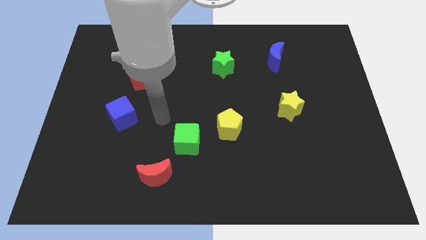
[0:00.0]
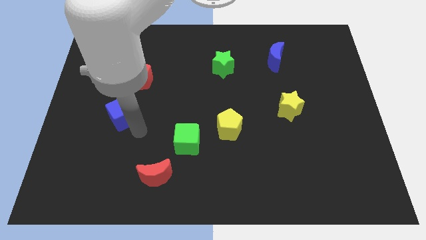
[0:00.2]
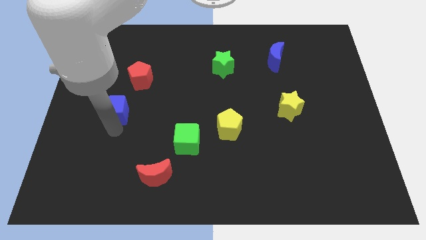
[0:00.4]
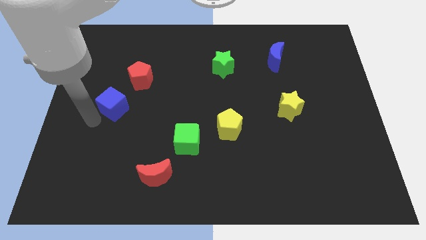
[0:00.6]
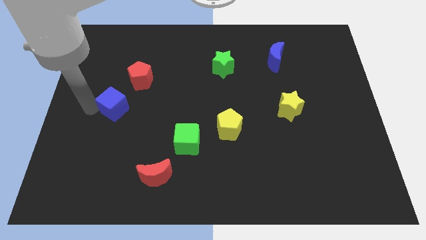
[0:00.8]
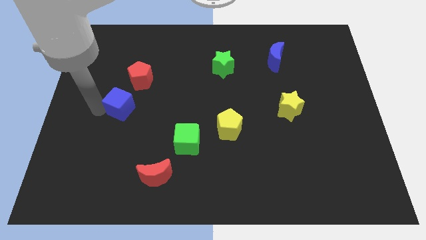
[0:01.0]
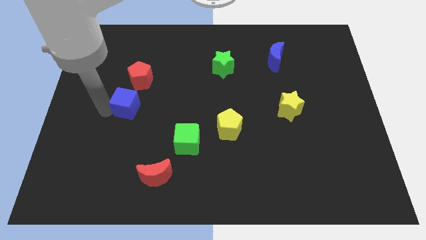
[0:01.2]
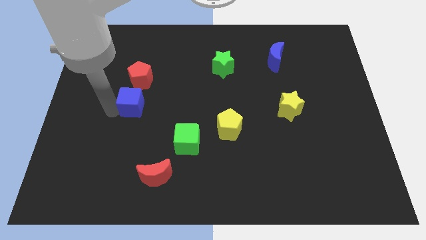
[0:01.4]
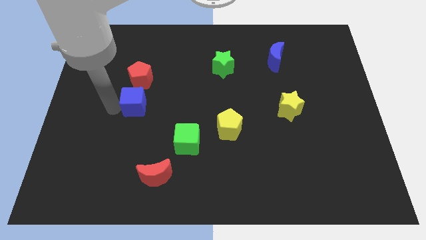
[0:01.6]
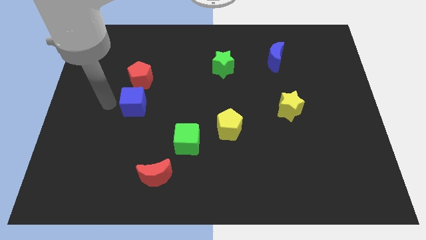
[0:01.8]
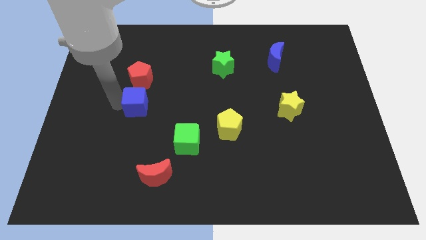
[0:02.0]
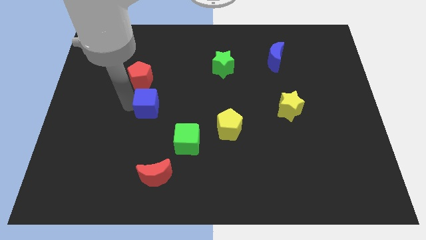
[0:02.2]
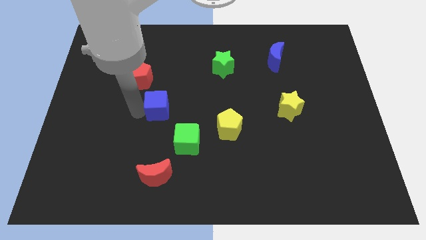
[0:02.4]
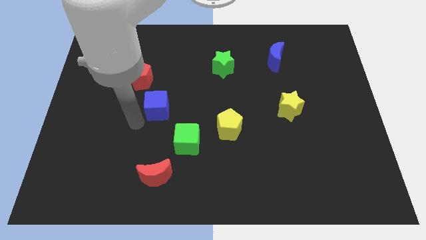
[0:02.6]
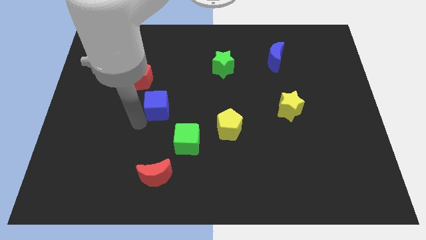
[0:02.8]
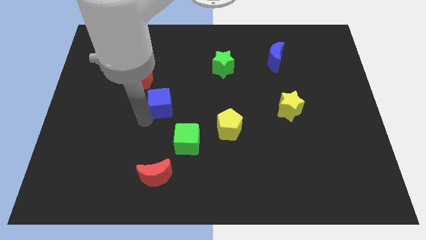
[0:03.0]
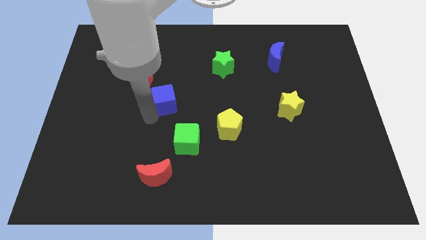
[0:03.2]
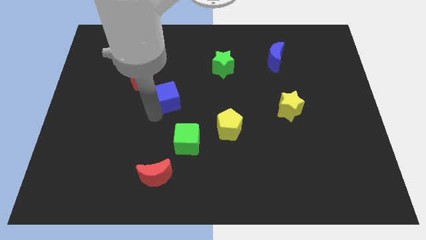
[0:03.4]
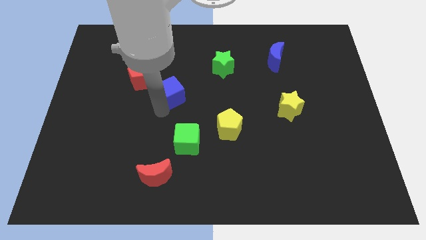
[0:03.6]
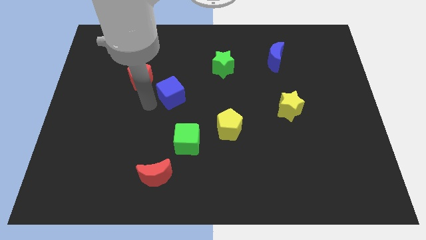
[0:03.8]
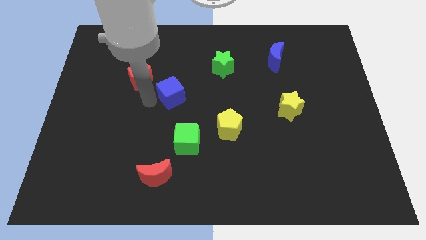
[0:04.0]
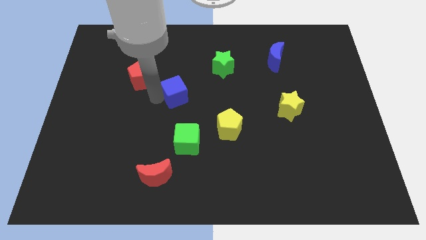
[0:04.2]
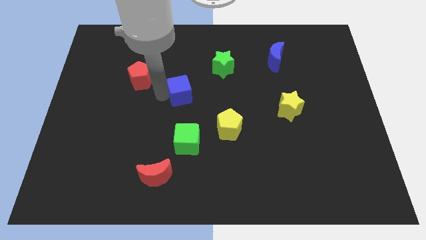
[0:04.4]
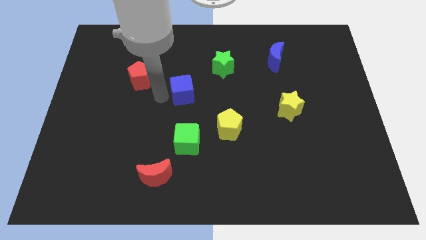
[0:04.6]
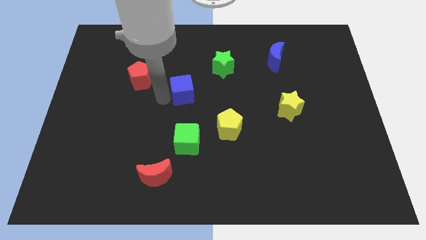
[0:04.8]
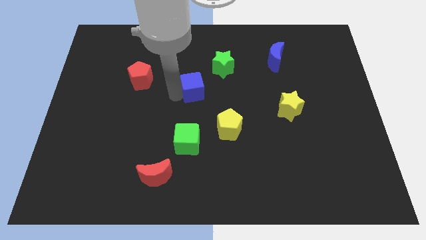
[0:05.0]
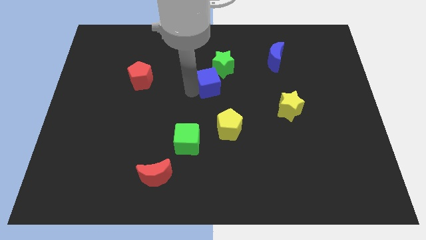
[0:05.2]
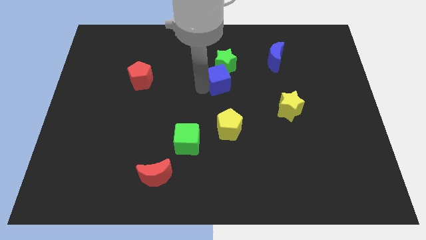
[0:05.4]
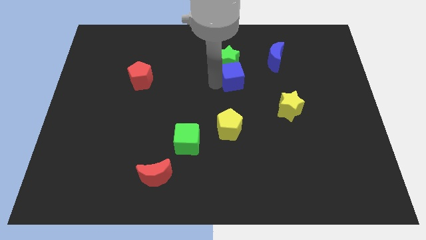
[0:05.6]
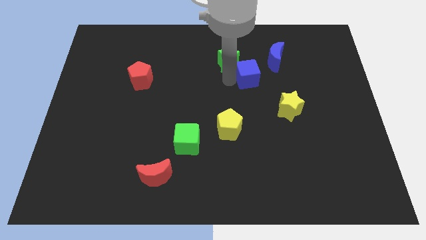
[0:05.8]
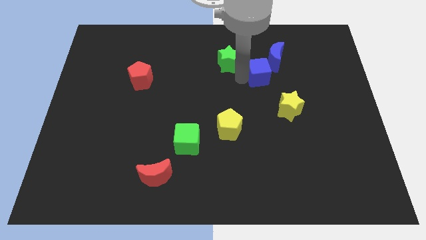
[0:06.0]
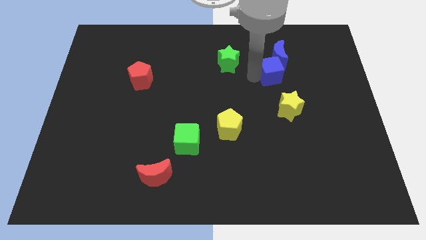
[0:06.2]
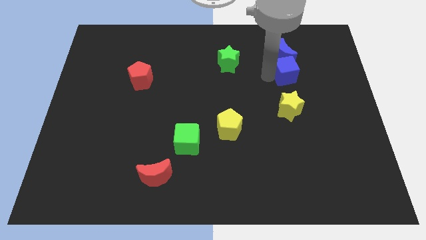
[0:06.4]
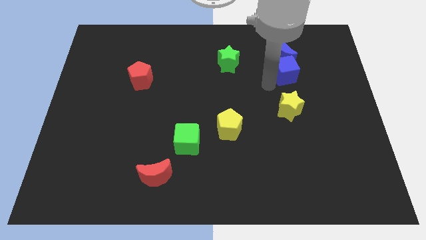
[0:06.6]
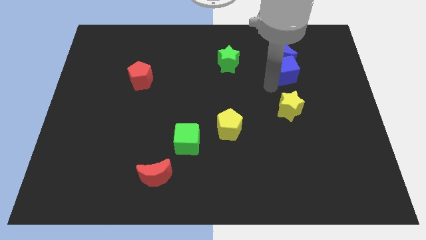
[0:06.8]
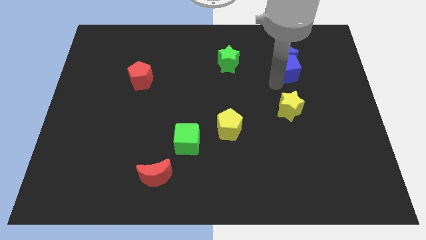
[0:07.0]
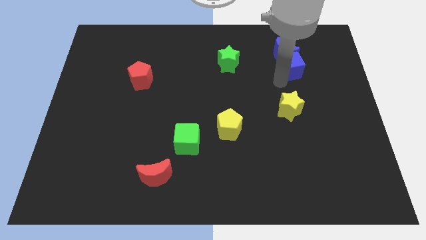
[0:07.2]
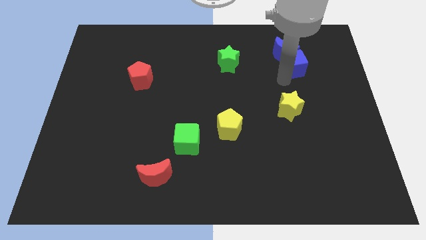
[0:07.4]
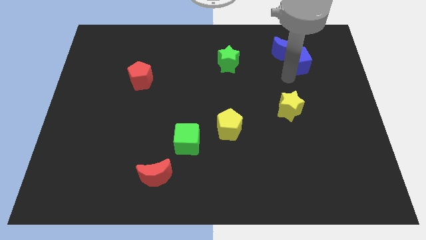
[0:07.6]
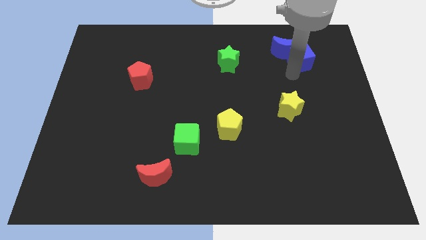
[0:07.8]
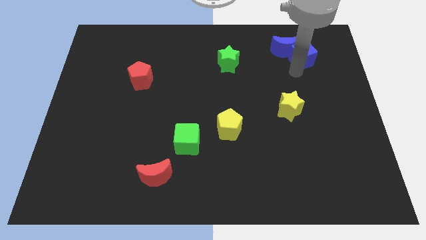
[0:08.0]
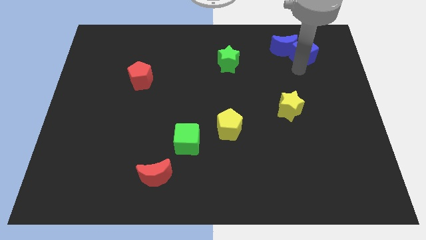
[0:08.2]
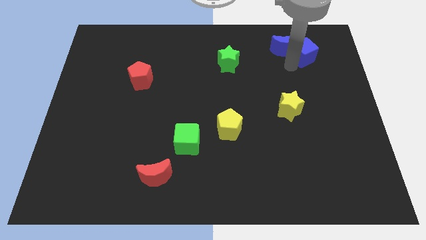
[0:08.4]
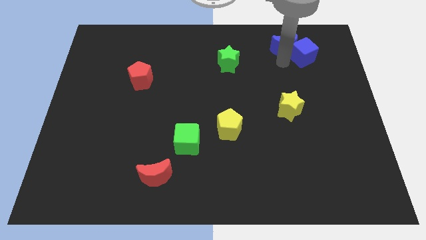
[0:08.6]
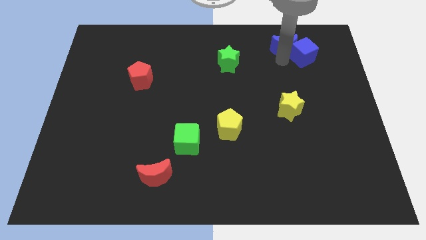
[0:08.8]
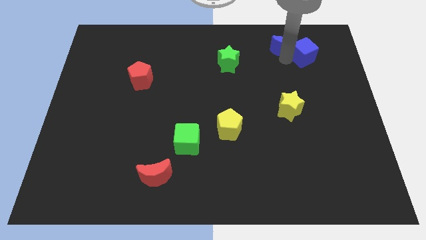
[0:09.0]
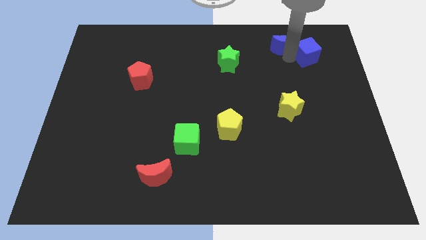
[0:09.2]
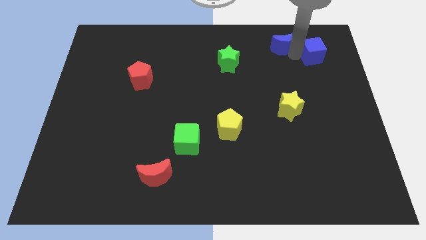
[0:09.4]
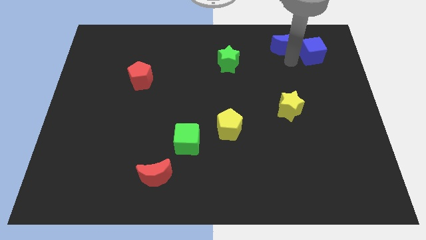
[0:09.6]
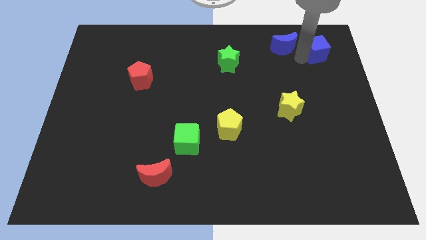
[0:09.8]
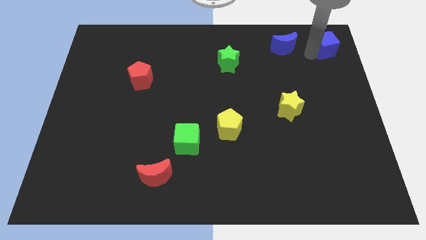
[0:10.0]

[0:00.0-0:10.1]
move the blue cube to the upper right corner

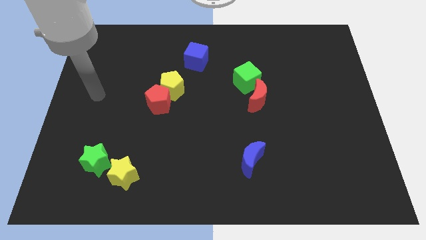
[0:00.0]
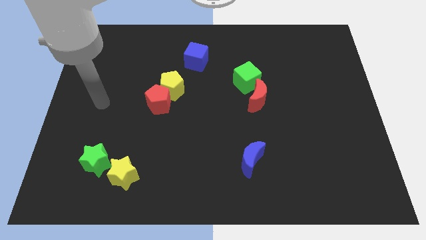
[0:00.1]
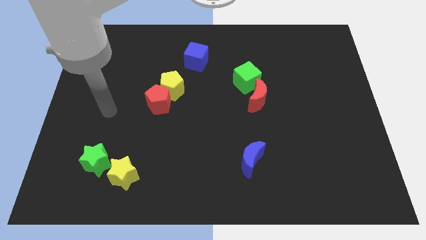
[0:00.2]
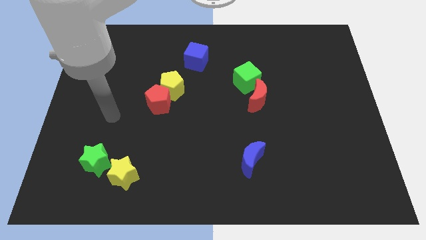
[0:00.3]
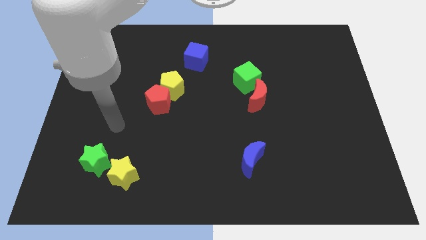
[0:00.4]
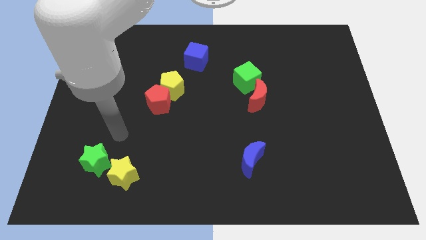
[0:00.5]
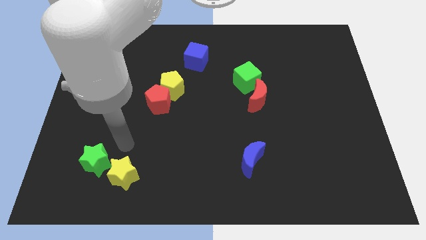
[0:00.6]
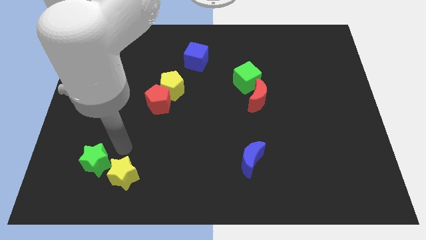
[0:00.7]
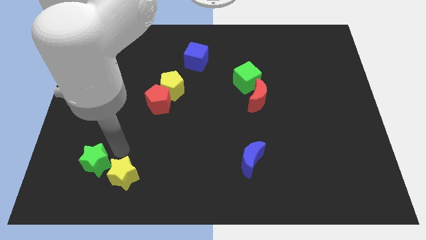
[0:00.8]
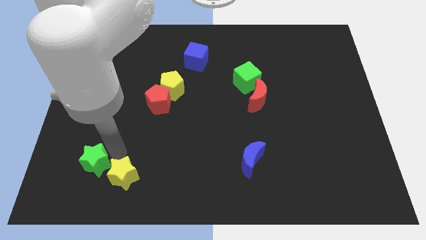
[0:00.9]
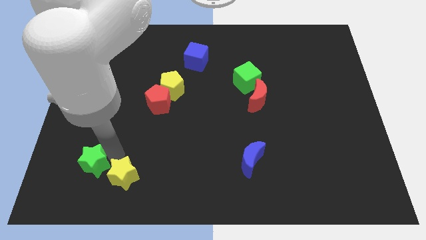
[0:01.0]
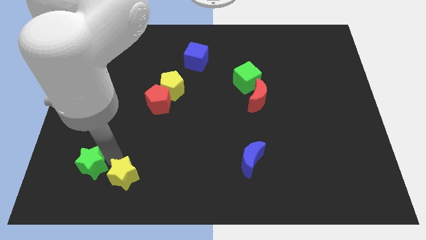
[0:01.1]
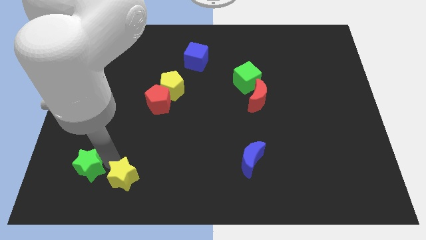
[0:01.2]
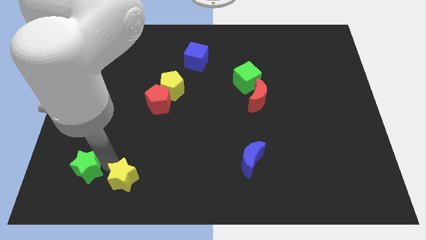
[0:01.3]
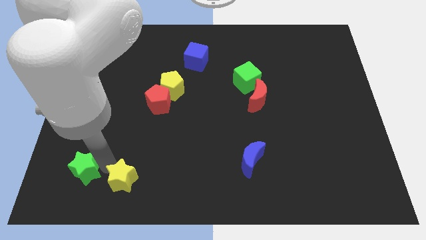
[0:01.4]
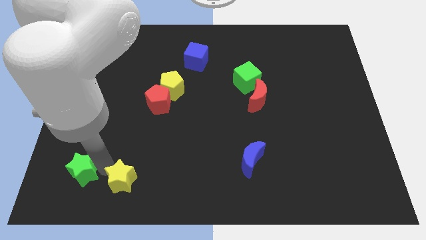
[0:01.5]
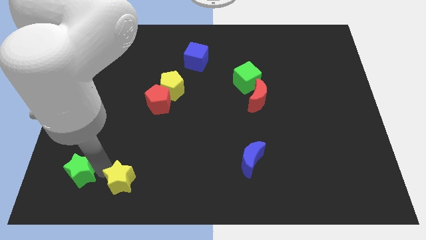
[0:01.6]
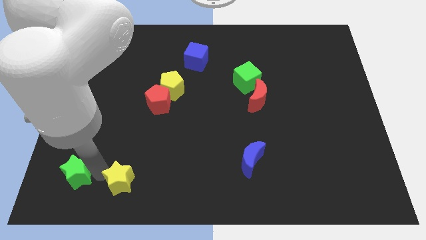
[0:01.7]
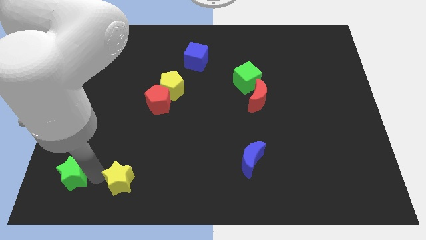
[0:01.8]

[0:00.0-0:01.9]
push the green star to the bottom left corner

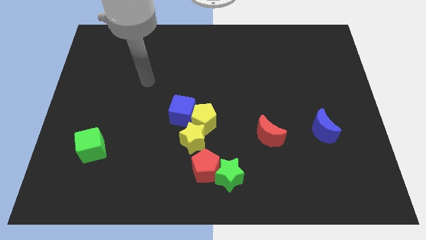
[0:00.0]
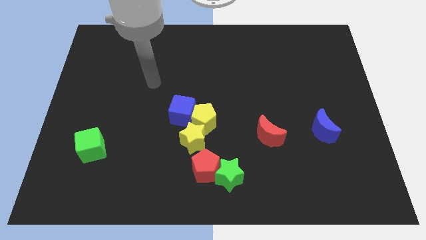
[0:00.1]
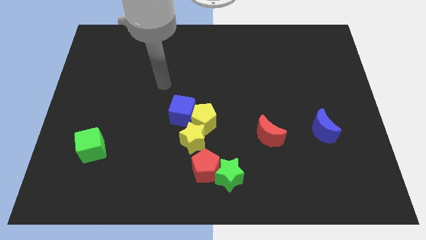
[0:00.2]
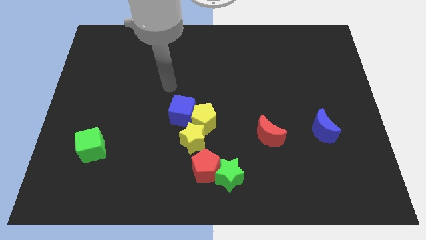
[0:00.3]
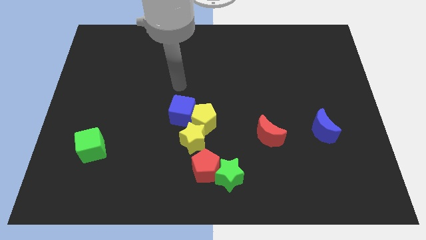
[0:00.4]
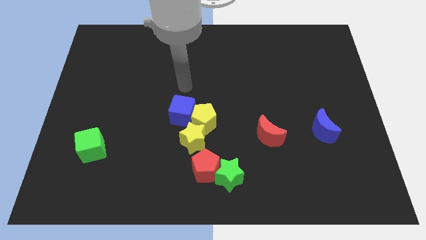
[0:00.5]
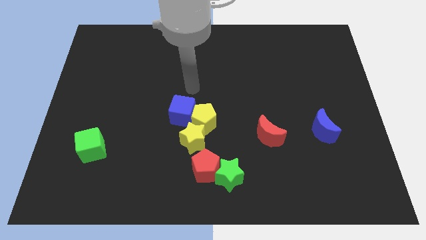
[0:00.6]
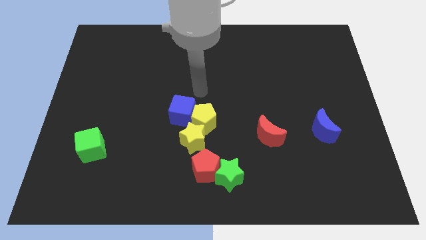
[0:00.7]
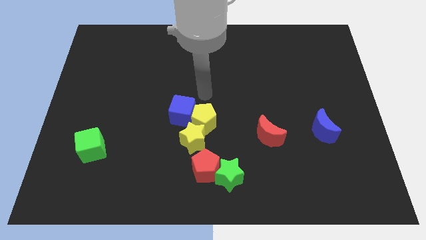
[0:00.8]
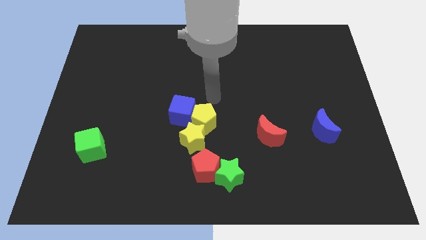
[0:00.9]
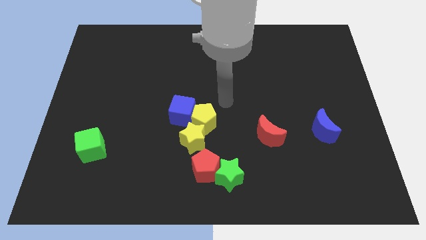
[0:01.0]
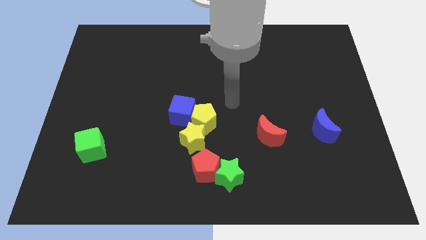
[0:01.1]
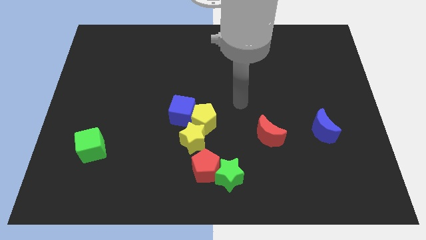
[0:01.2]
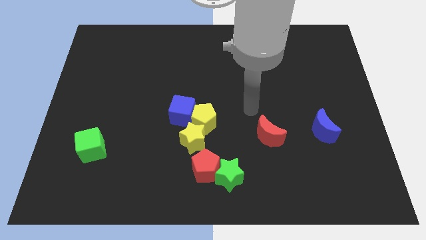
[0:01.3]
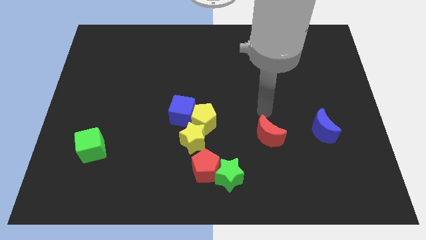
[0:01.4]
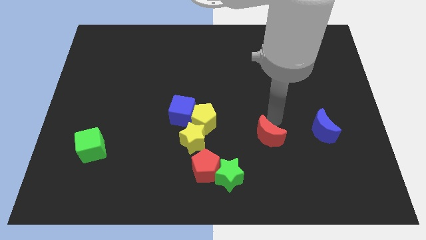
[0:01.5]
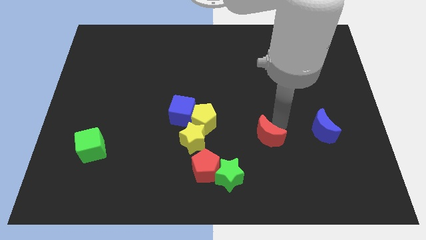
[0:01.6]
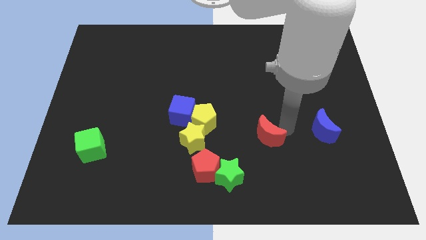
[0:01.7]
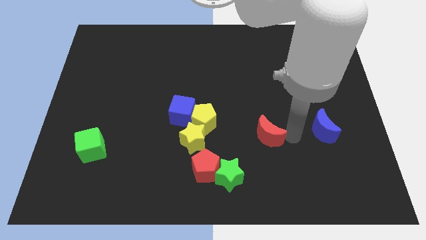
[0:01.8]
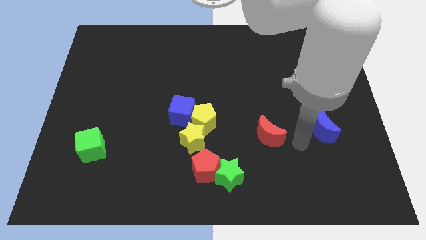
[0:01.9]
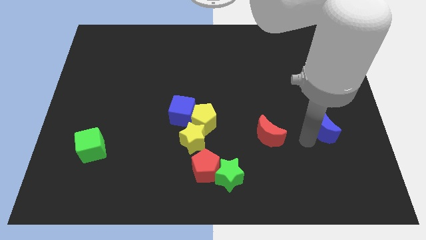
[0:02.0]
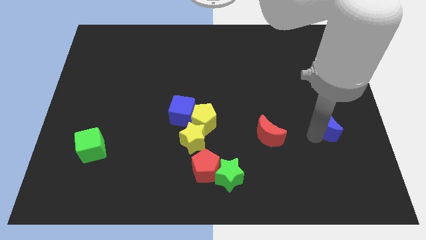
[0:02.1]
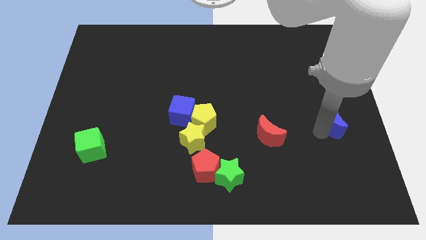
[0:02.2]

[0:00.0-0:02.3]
put the blue moon to the right side of the board
